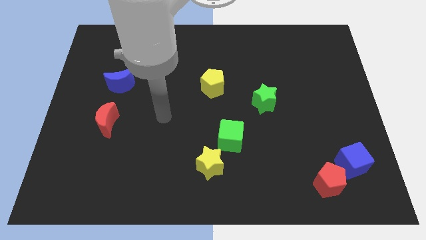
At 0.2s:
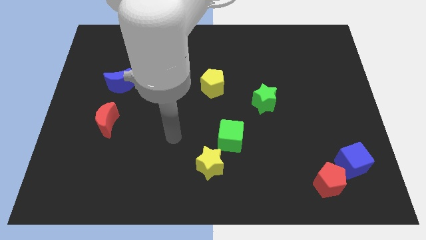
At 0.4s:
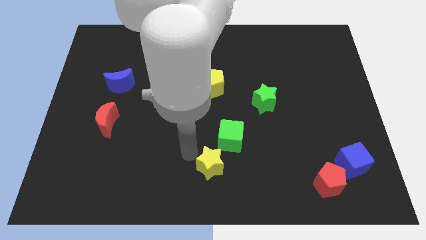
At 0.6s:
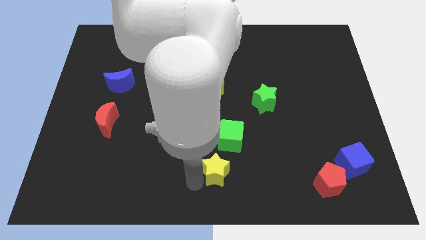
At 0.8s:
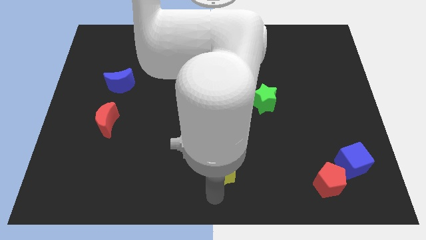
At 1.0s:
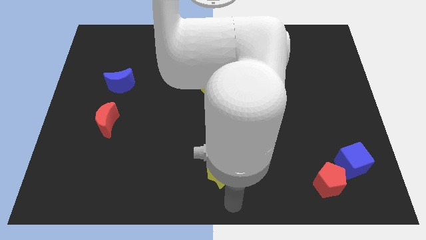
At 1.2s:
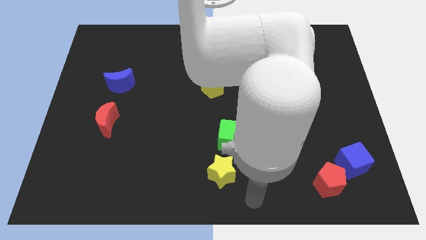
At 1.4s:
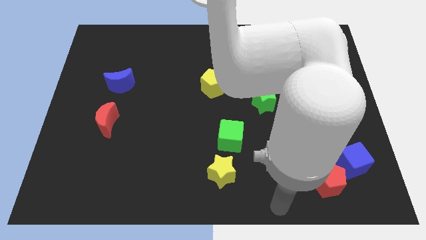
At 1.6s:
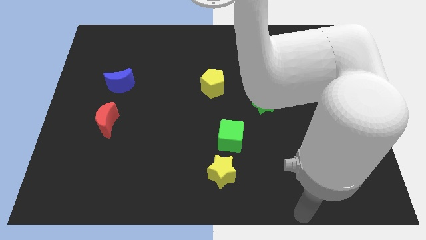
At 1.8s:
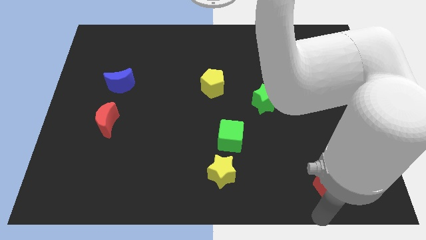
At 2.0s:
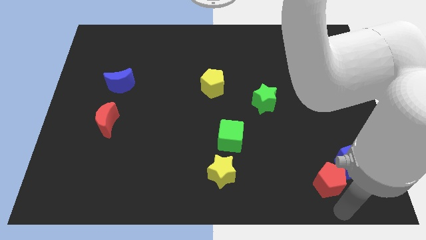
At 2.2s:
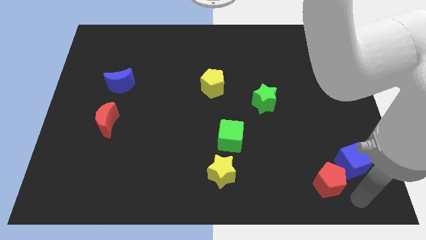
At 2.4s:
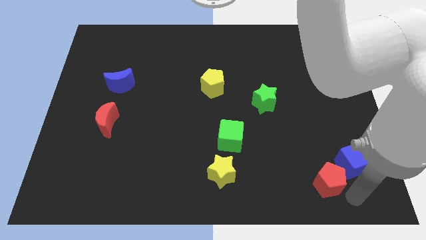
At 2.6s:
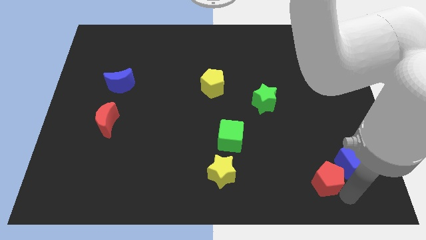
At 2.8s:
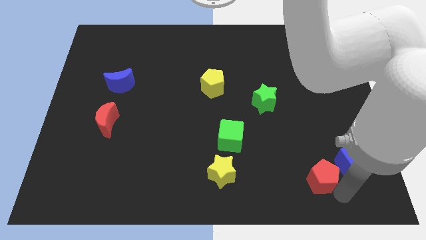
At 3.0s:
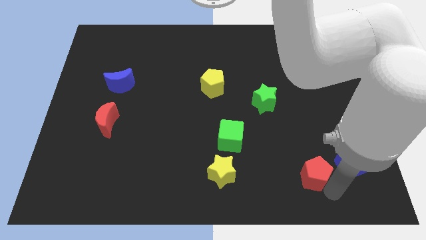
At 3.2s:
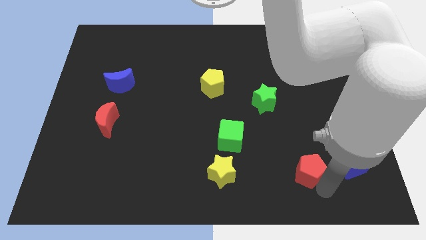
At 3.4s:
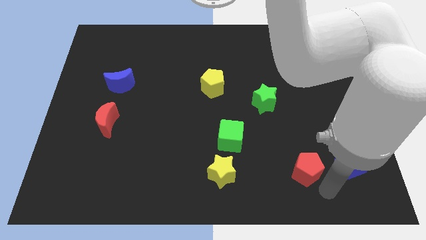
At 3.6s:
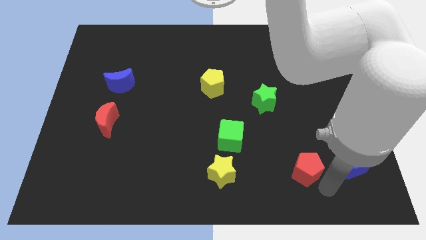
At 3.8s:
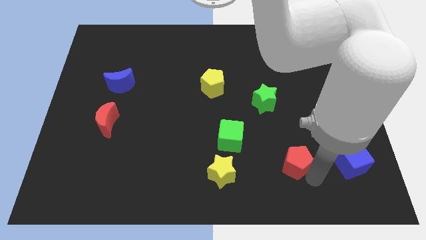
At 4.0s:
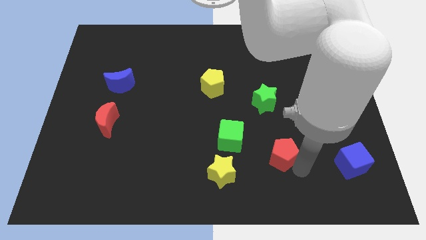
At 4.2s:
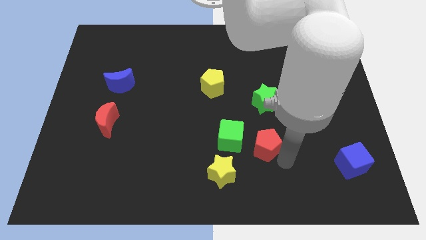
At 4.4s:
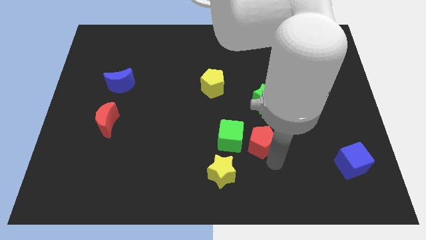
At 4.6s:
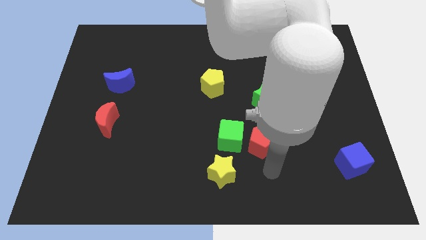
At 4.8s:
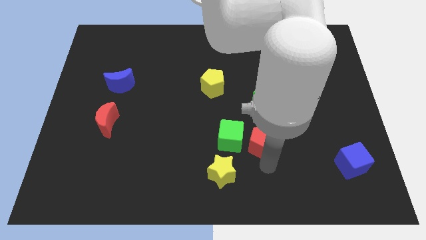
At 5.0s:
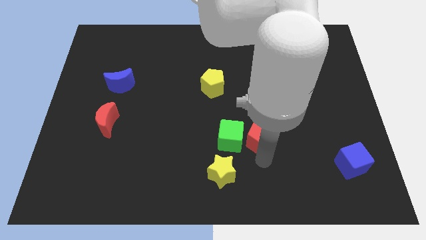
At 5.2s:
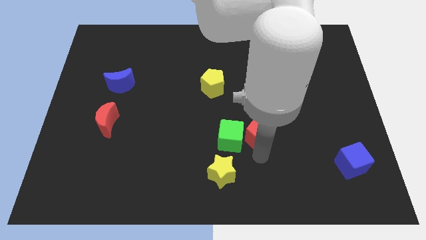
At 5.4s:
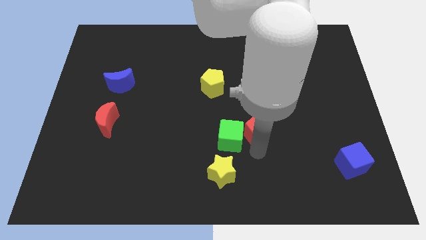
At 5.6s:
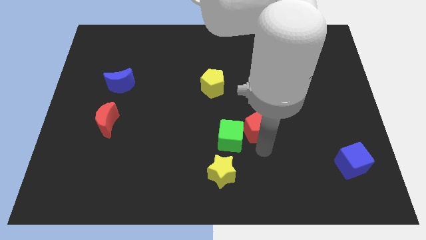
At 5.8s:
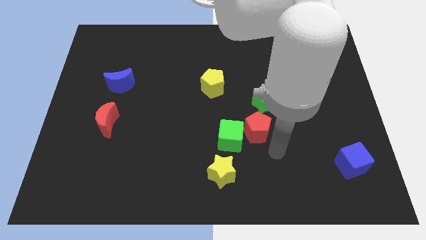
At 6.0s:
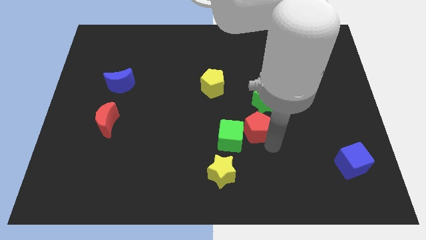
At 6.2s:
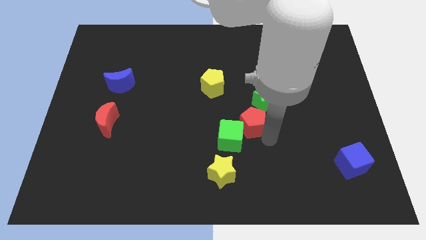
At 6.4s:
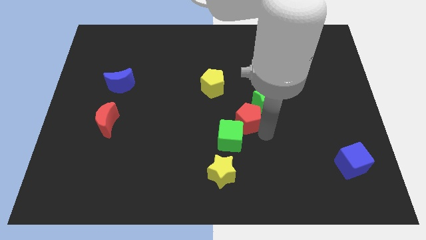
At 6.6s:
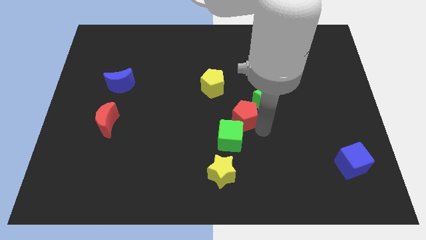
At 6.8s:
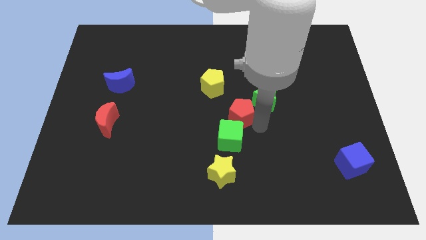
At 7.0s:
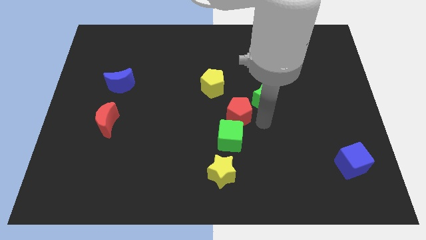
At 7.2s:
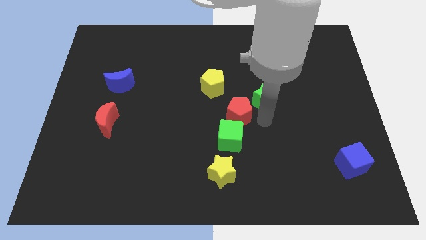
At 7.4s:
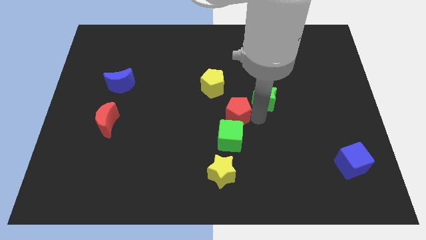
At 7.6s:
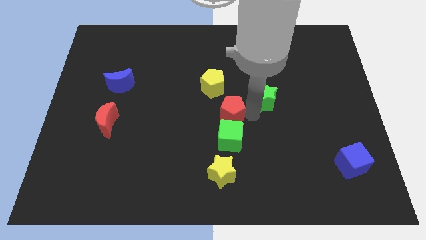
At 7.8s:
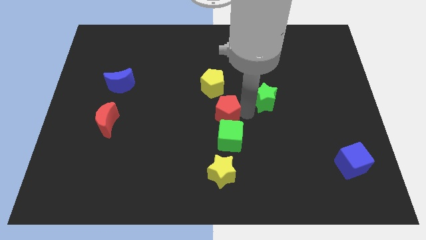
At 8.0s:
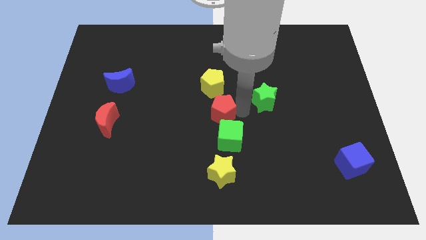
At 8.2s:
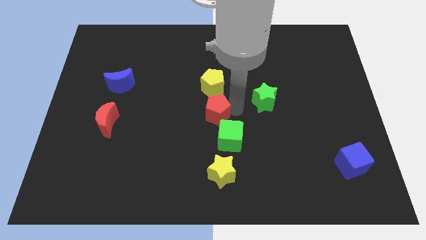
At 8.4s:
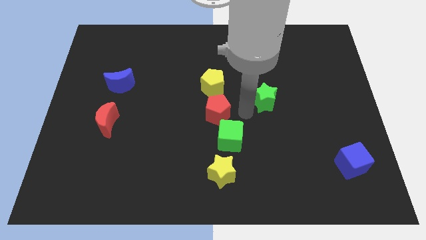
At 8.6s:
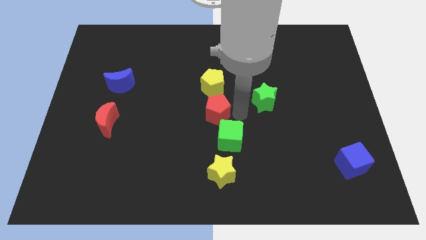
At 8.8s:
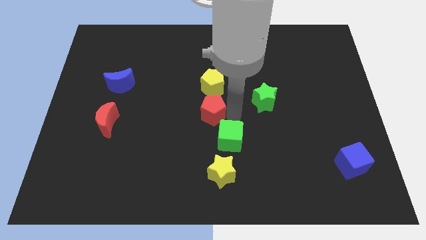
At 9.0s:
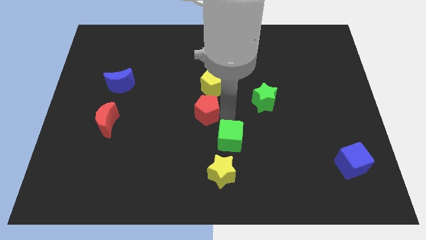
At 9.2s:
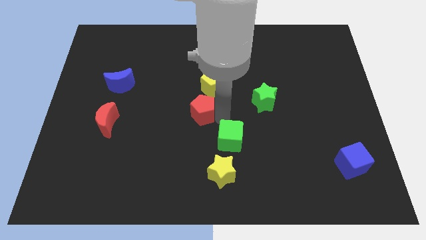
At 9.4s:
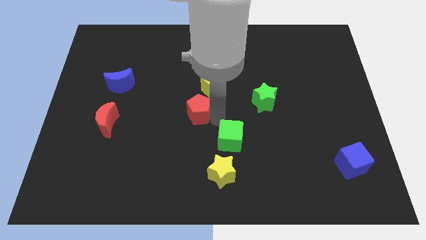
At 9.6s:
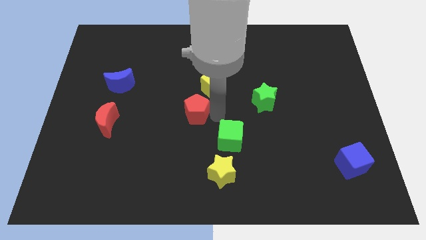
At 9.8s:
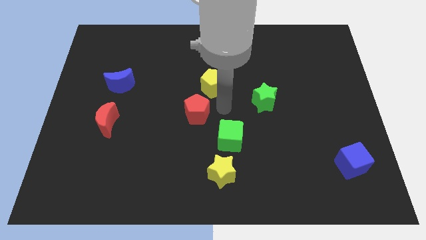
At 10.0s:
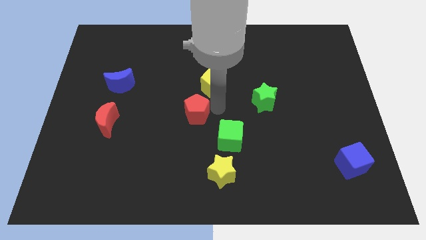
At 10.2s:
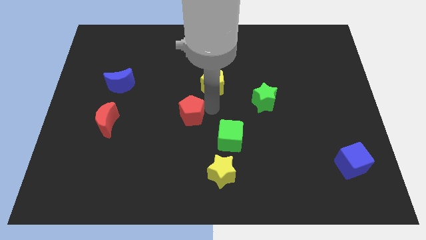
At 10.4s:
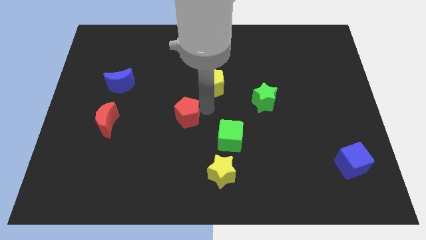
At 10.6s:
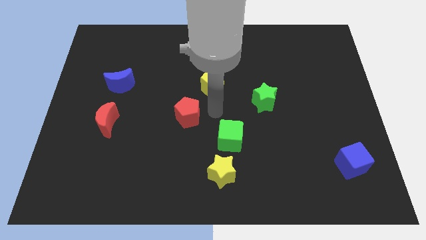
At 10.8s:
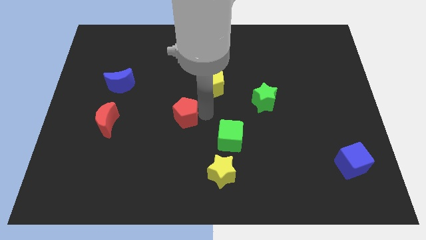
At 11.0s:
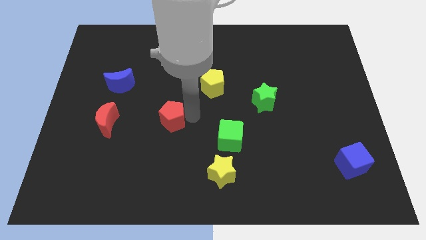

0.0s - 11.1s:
slide the red pentagon to the right of the red moon

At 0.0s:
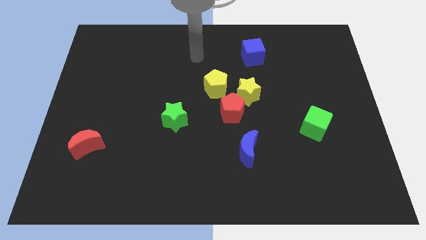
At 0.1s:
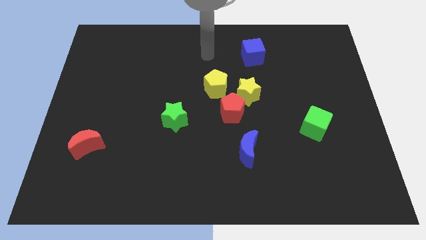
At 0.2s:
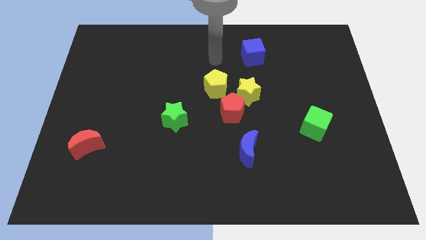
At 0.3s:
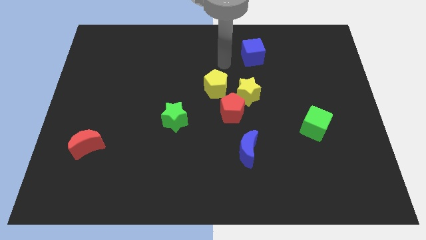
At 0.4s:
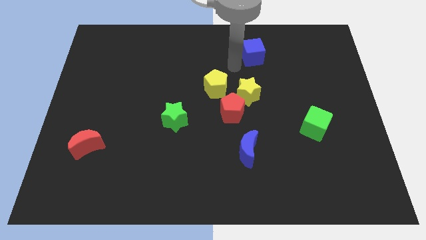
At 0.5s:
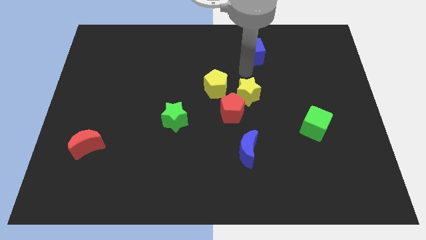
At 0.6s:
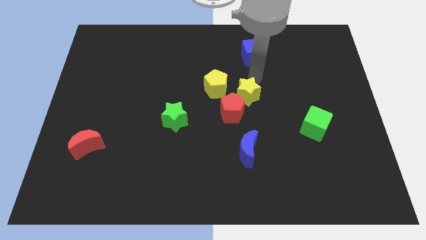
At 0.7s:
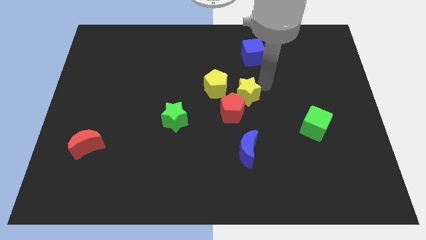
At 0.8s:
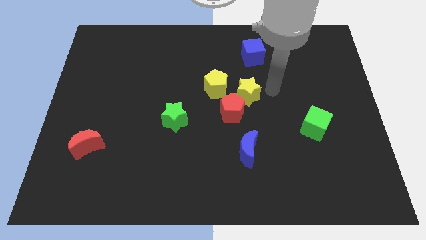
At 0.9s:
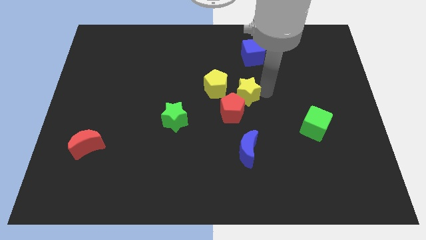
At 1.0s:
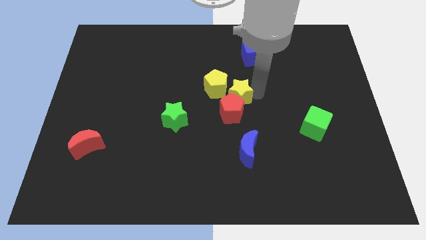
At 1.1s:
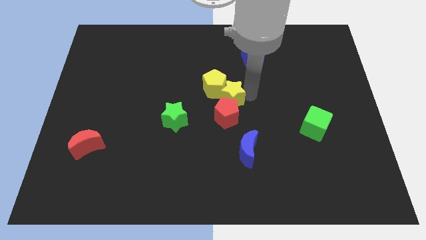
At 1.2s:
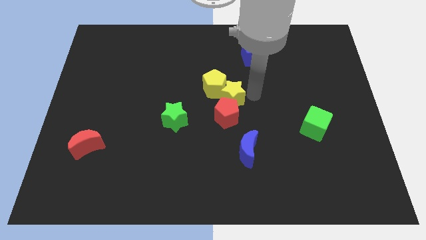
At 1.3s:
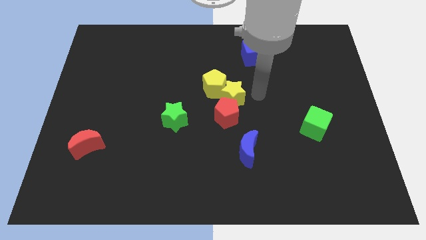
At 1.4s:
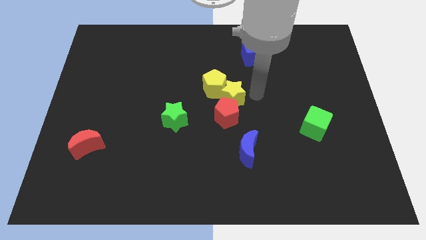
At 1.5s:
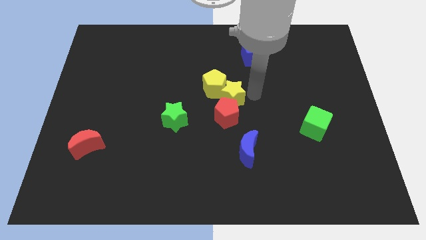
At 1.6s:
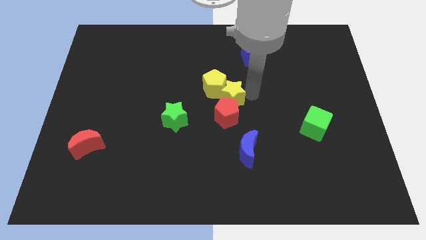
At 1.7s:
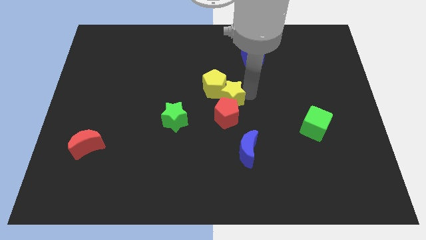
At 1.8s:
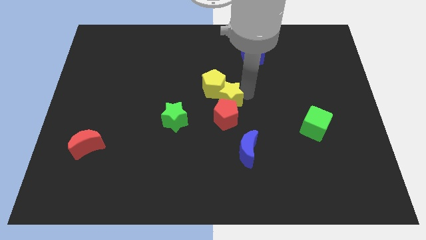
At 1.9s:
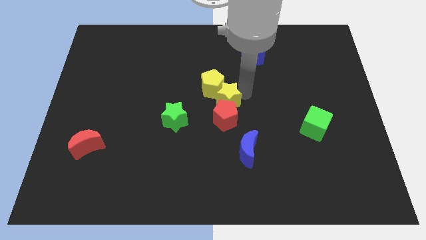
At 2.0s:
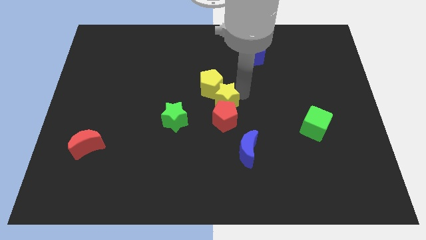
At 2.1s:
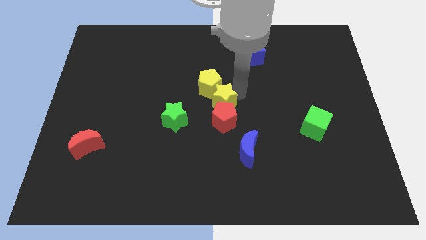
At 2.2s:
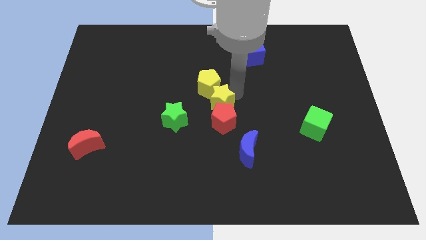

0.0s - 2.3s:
slide the yellow star to the top right side of the green star
